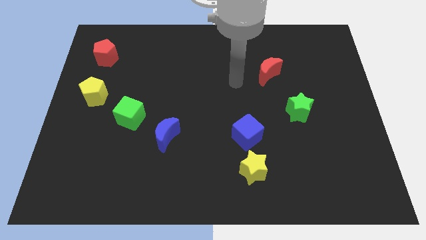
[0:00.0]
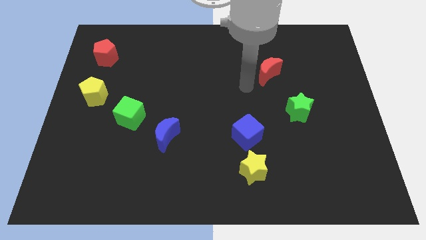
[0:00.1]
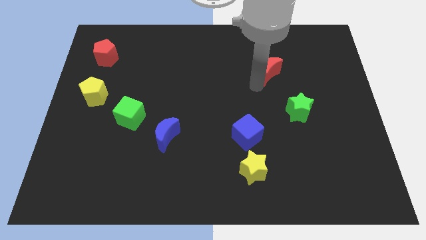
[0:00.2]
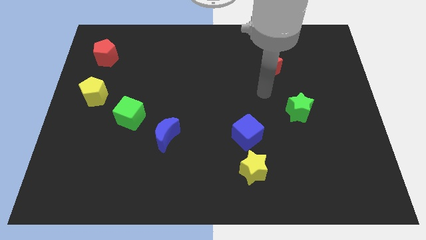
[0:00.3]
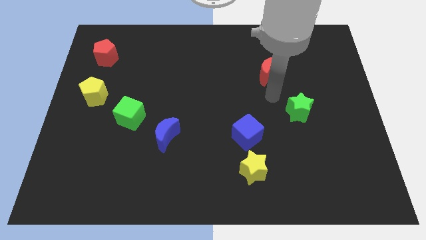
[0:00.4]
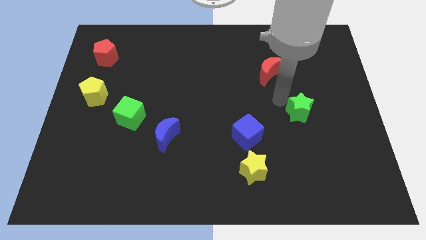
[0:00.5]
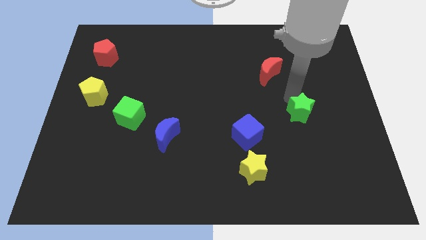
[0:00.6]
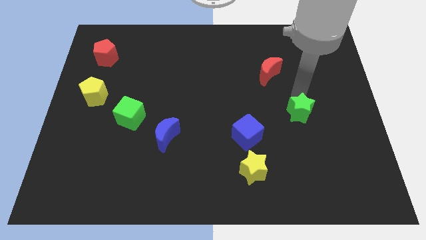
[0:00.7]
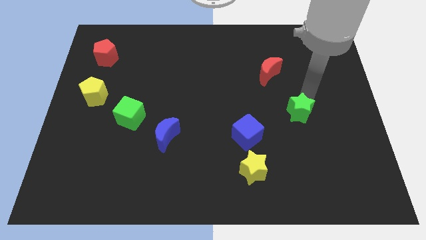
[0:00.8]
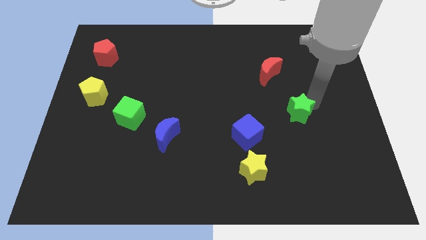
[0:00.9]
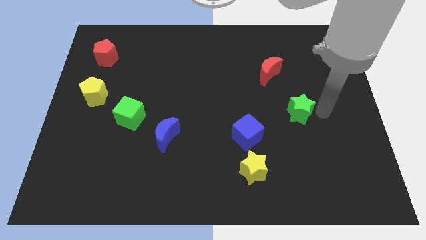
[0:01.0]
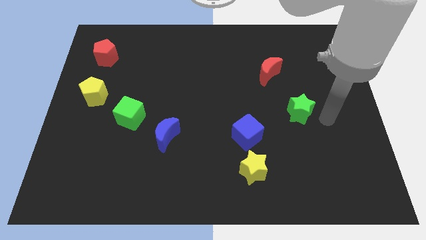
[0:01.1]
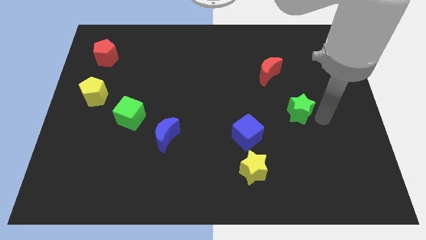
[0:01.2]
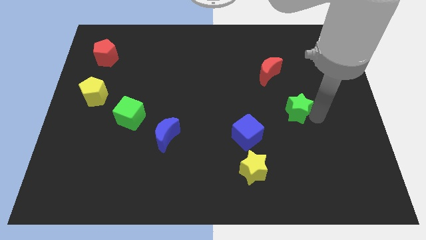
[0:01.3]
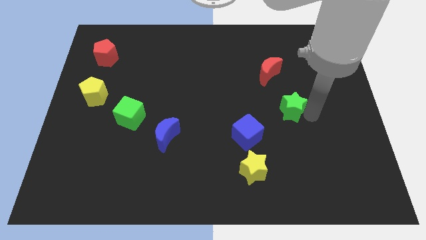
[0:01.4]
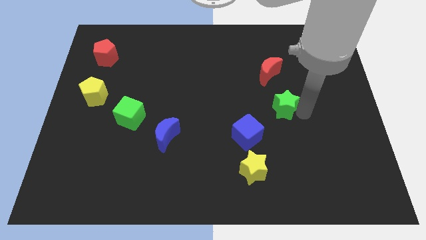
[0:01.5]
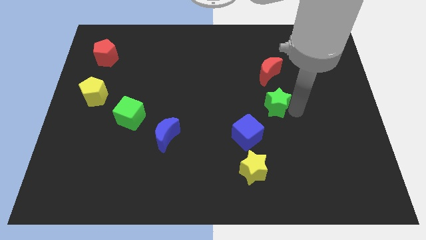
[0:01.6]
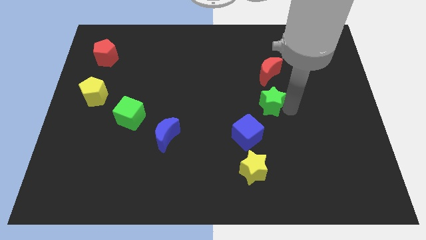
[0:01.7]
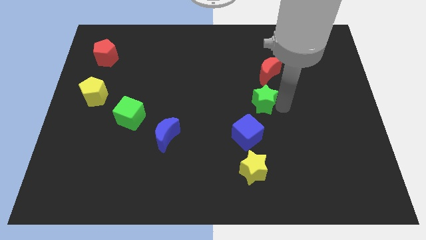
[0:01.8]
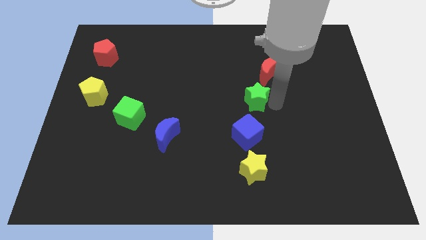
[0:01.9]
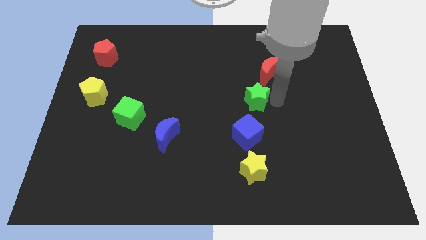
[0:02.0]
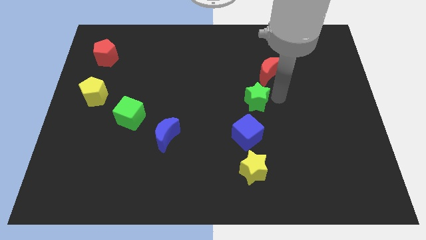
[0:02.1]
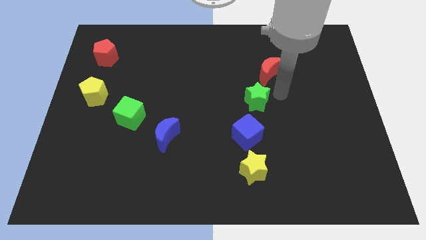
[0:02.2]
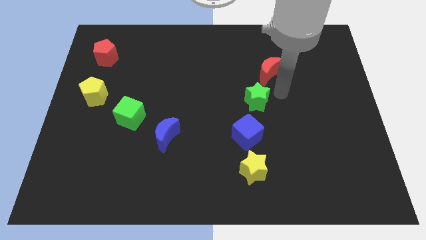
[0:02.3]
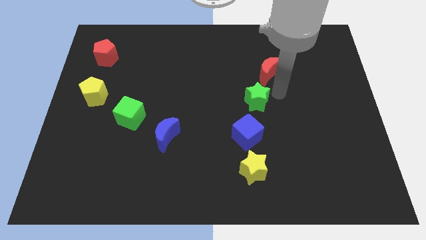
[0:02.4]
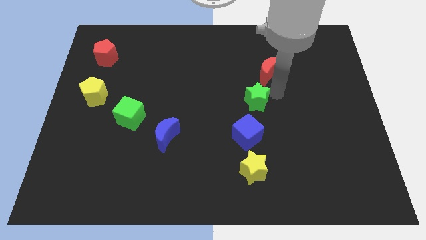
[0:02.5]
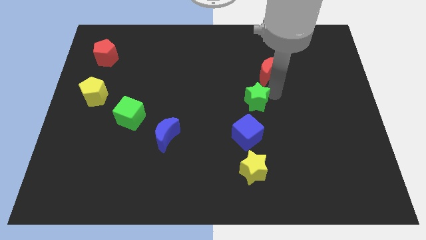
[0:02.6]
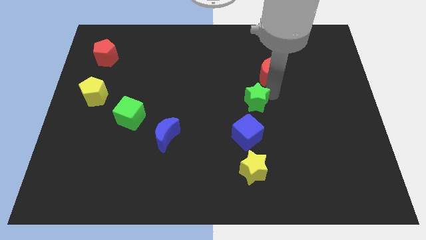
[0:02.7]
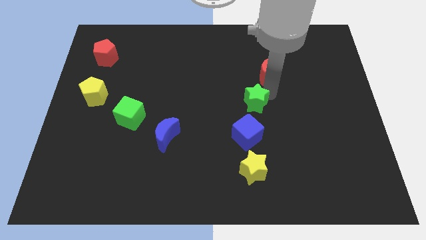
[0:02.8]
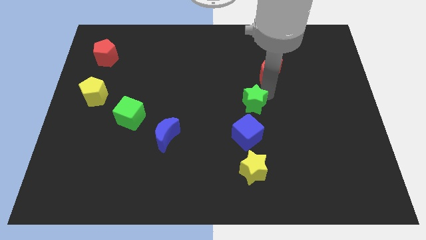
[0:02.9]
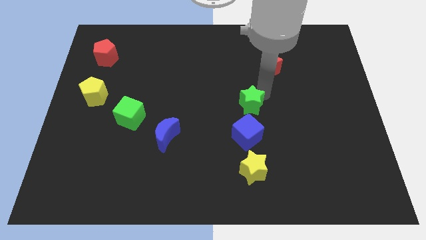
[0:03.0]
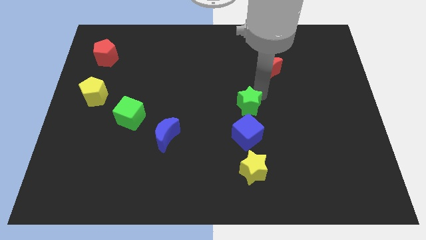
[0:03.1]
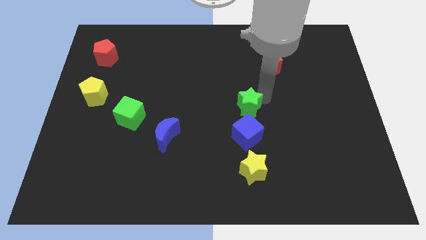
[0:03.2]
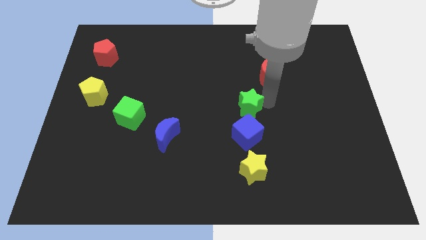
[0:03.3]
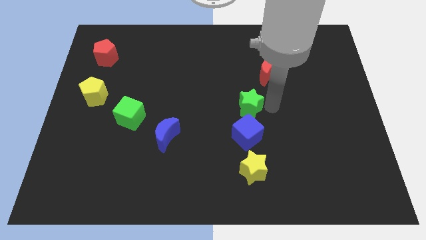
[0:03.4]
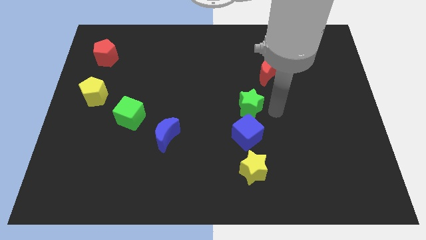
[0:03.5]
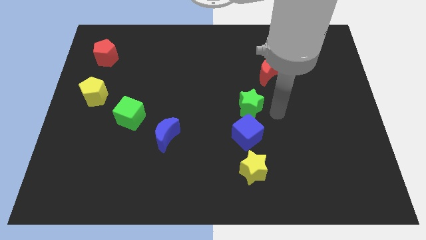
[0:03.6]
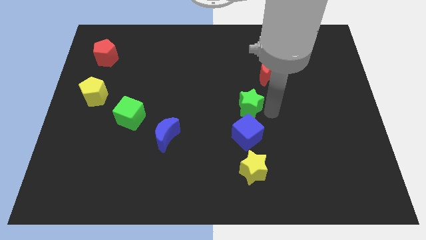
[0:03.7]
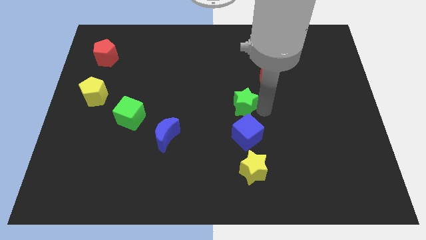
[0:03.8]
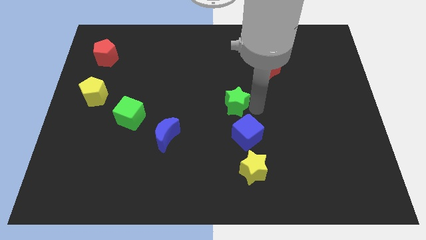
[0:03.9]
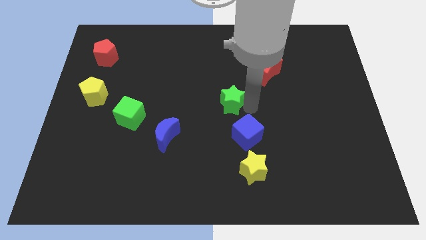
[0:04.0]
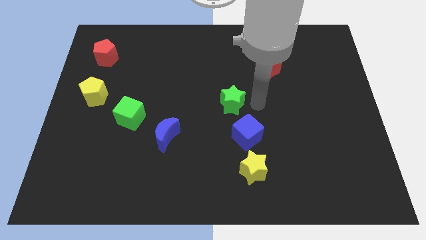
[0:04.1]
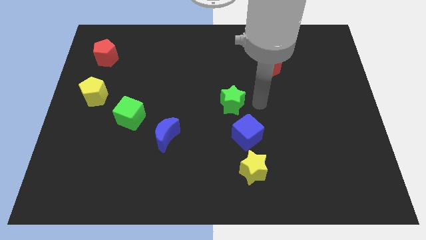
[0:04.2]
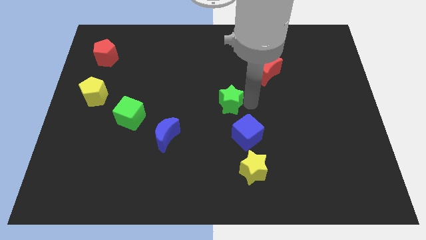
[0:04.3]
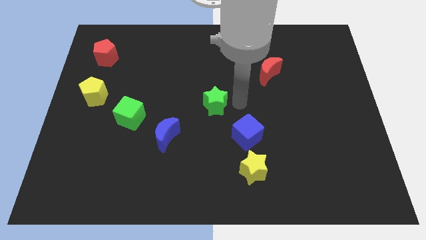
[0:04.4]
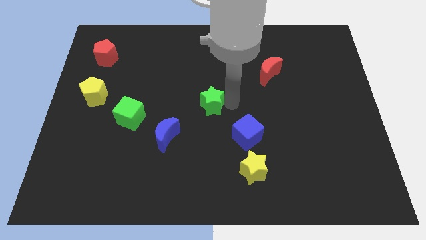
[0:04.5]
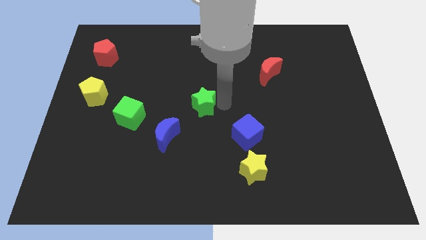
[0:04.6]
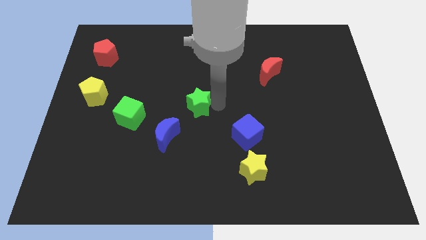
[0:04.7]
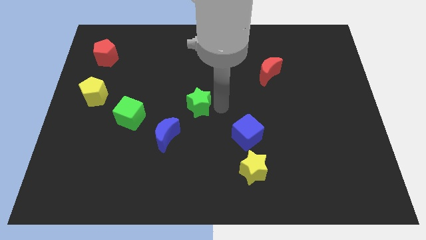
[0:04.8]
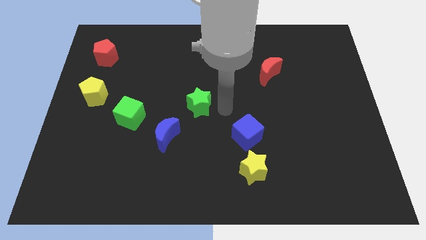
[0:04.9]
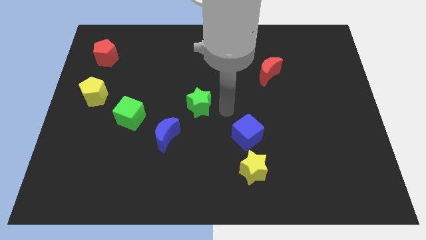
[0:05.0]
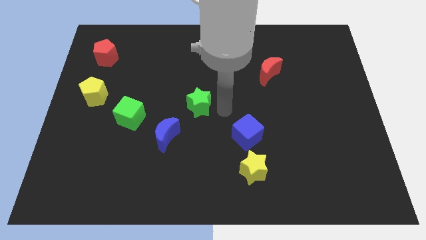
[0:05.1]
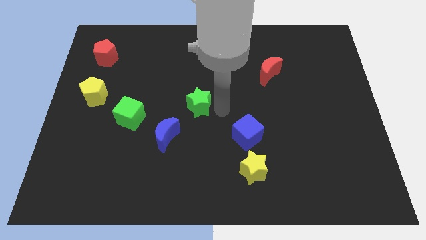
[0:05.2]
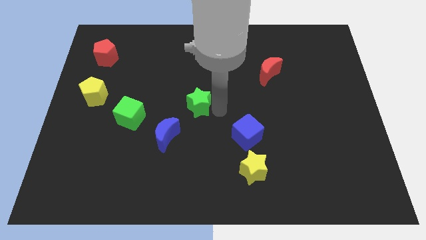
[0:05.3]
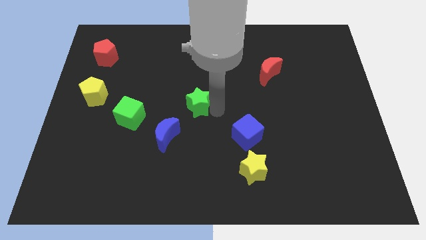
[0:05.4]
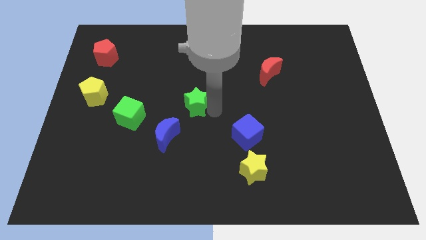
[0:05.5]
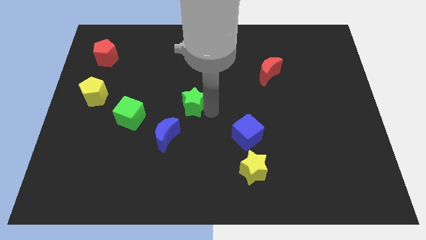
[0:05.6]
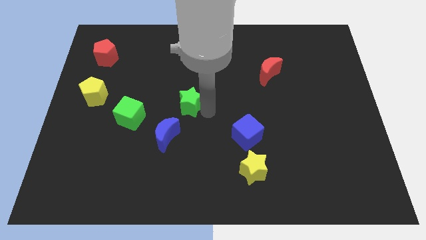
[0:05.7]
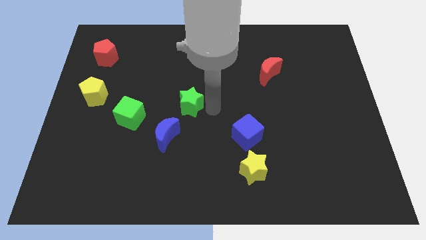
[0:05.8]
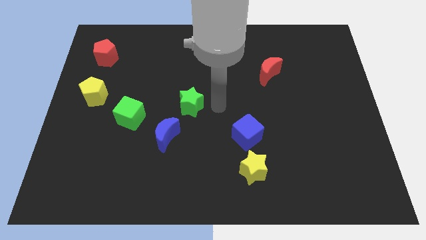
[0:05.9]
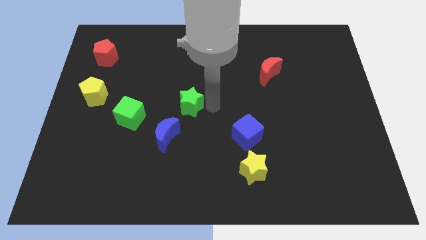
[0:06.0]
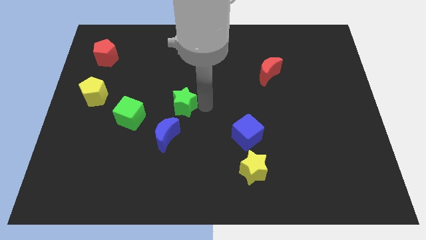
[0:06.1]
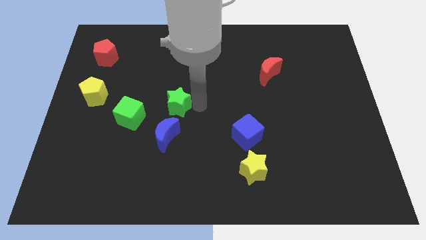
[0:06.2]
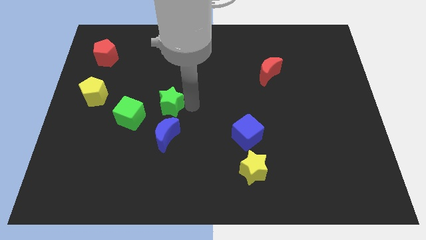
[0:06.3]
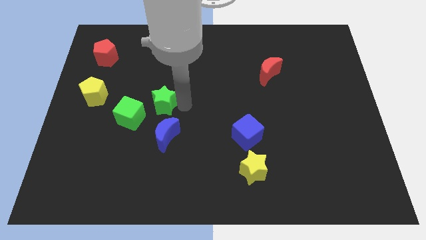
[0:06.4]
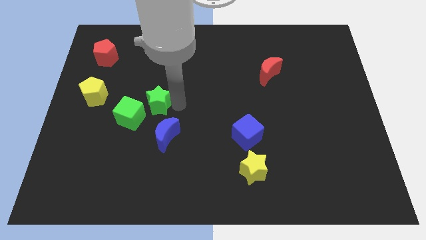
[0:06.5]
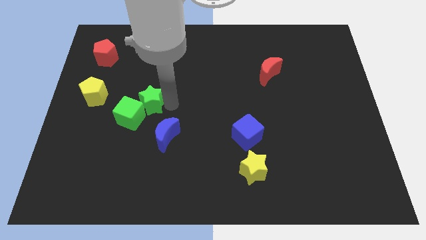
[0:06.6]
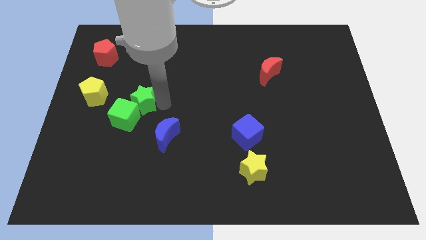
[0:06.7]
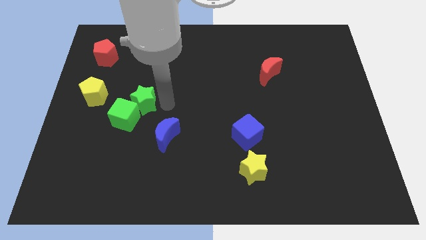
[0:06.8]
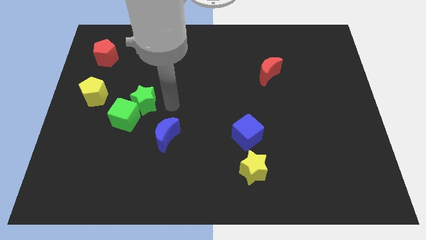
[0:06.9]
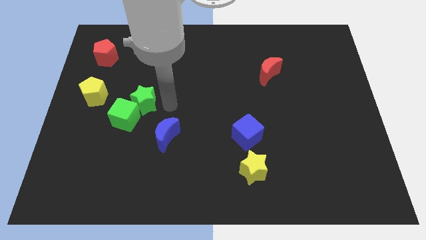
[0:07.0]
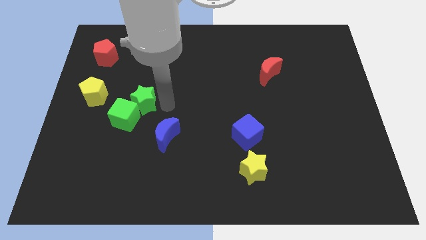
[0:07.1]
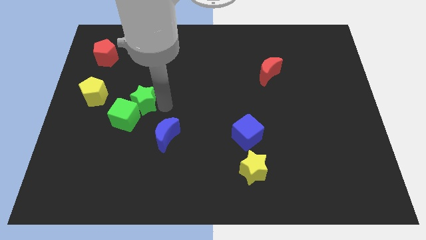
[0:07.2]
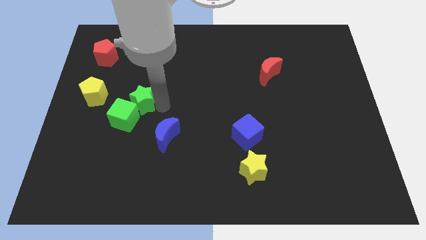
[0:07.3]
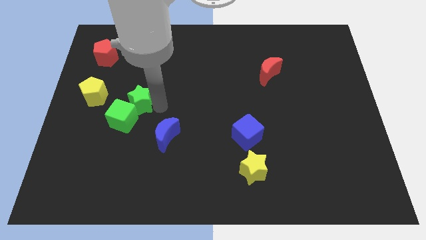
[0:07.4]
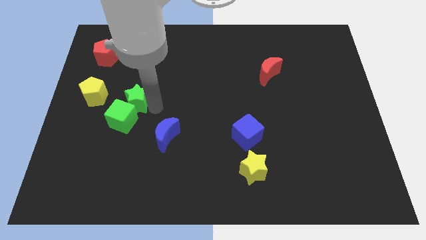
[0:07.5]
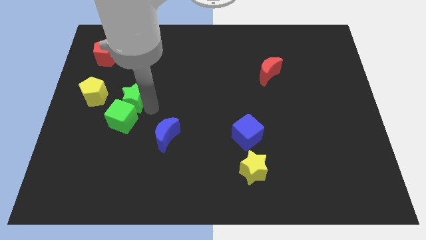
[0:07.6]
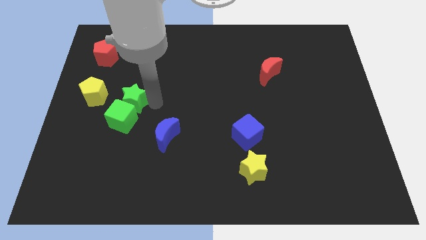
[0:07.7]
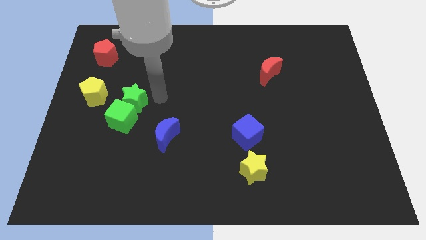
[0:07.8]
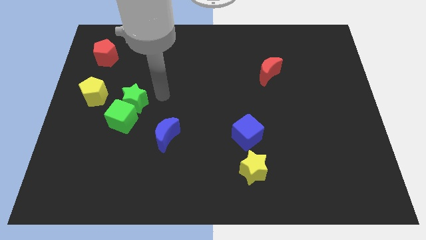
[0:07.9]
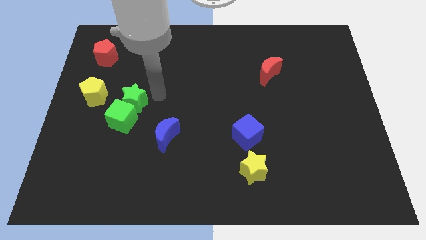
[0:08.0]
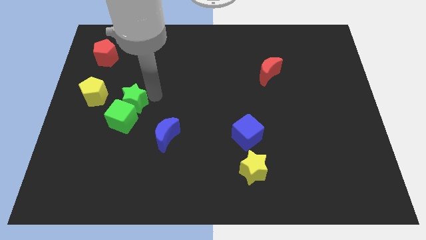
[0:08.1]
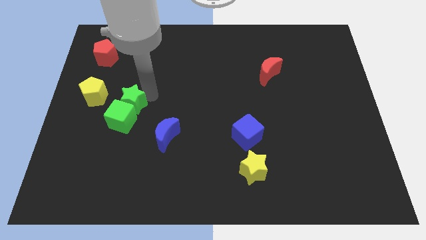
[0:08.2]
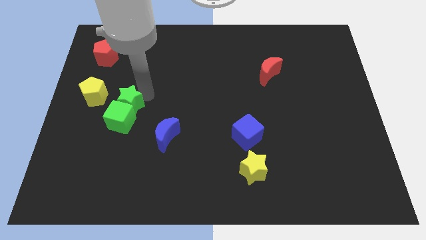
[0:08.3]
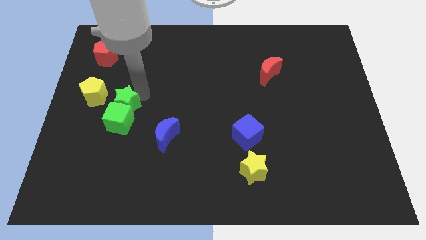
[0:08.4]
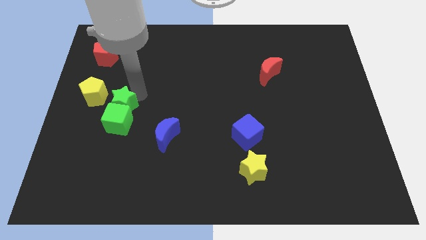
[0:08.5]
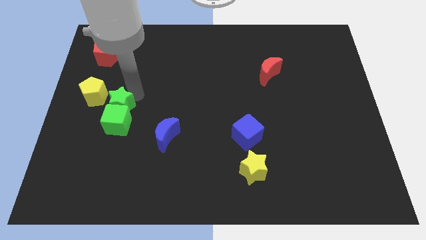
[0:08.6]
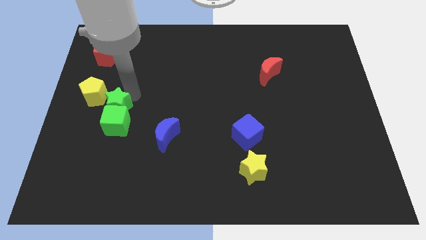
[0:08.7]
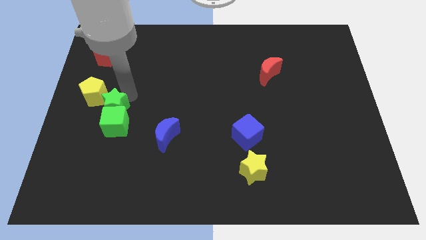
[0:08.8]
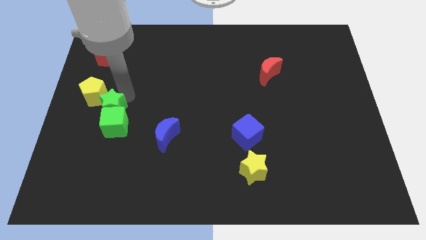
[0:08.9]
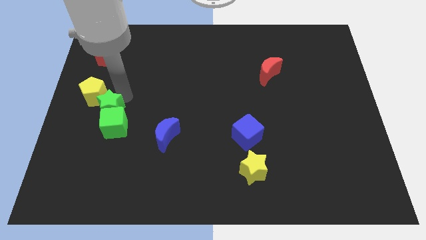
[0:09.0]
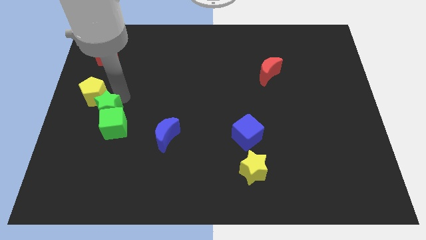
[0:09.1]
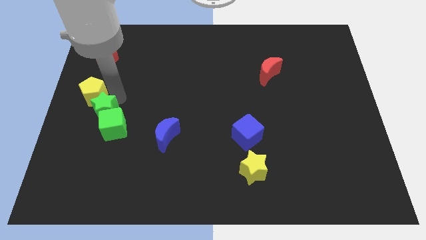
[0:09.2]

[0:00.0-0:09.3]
move the green star to the center left
